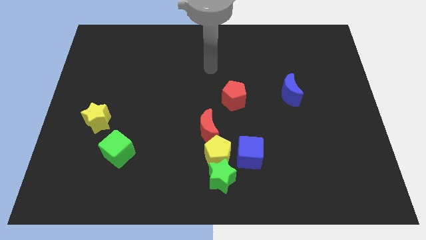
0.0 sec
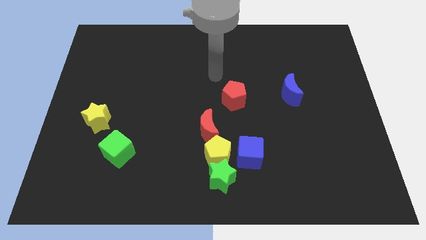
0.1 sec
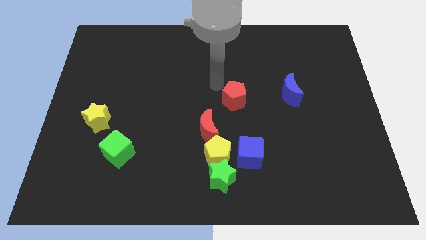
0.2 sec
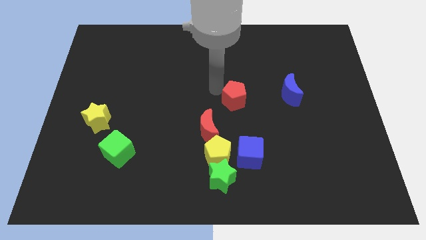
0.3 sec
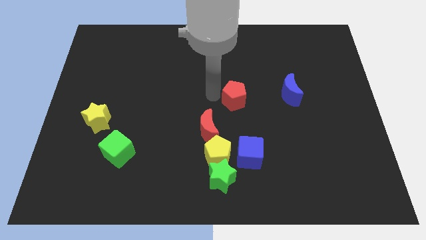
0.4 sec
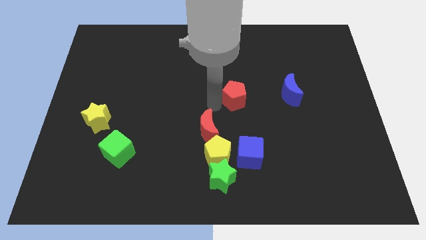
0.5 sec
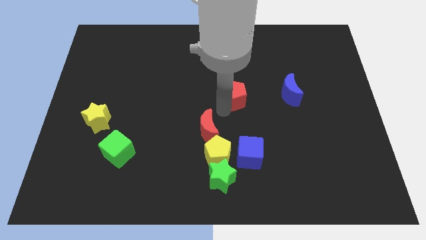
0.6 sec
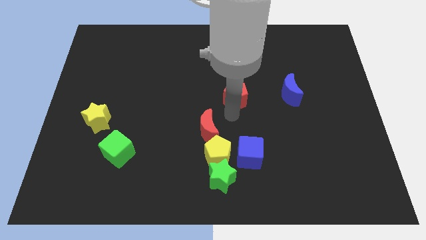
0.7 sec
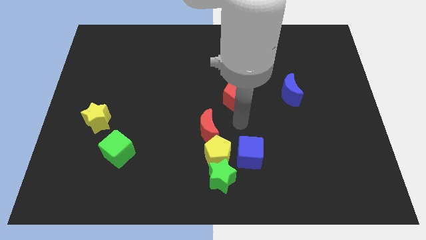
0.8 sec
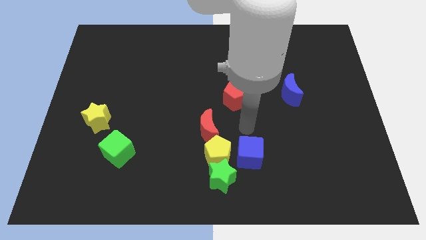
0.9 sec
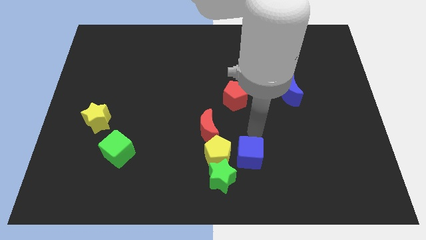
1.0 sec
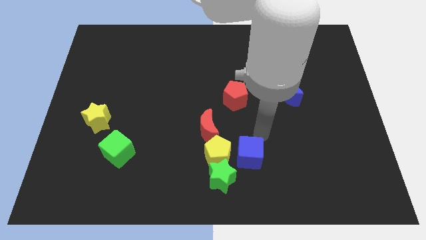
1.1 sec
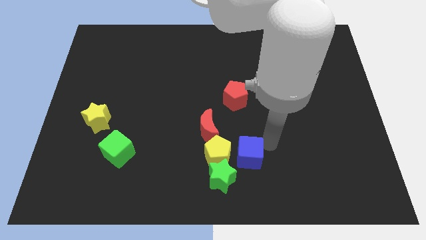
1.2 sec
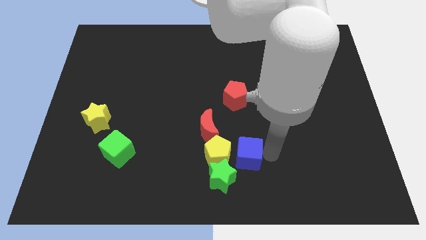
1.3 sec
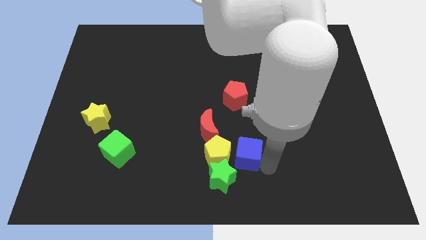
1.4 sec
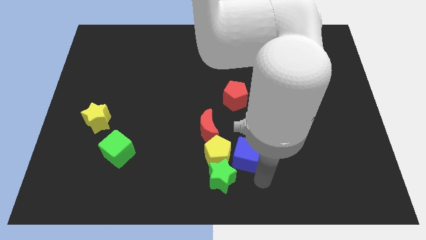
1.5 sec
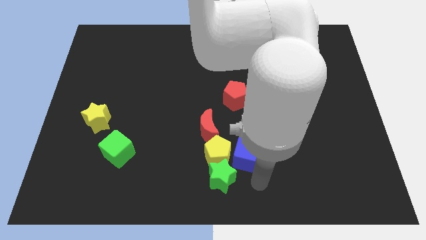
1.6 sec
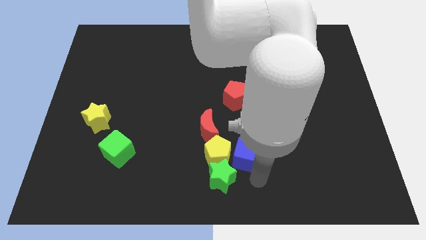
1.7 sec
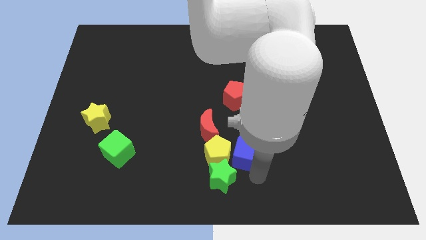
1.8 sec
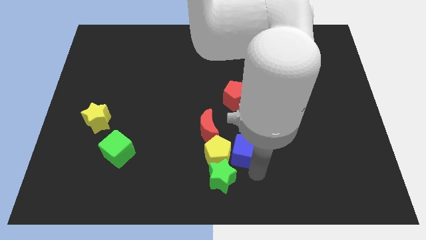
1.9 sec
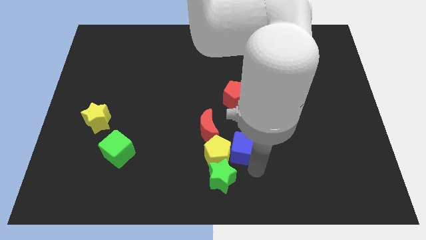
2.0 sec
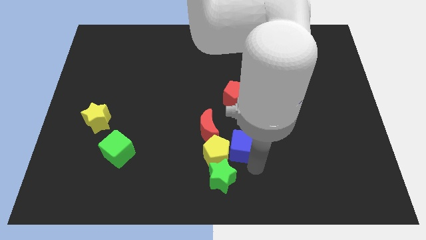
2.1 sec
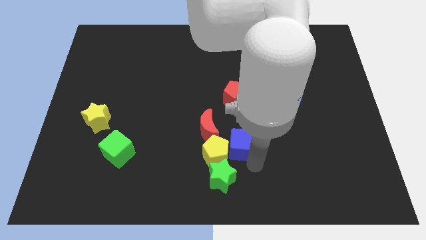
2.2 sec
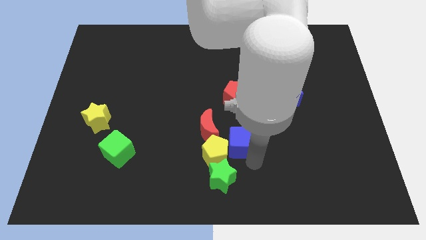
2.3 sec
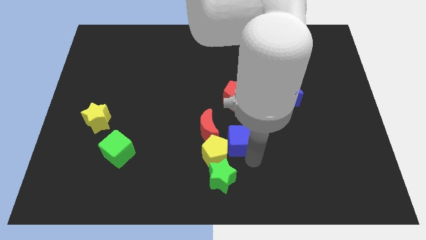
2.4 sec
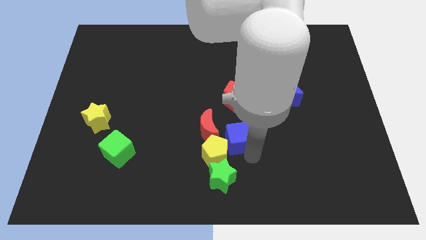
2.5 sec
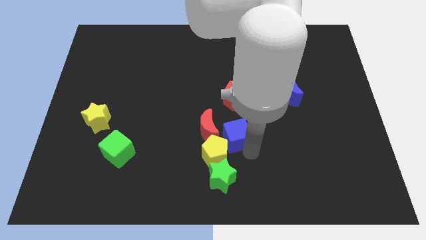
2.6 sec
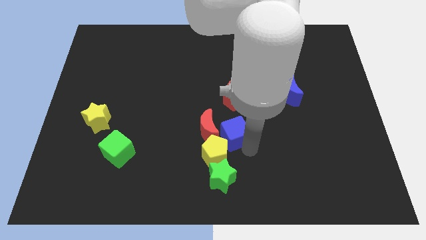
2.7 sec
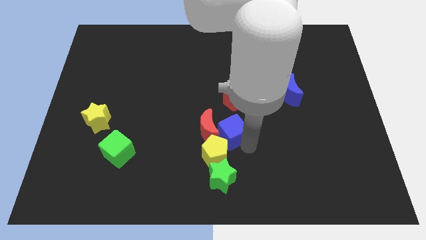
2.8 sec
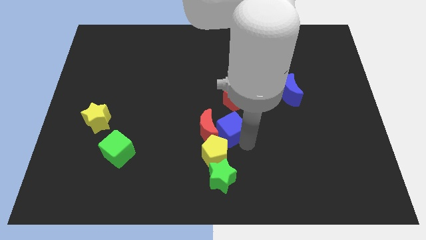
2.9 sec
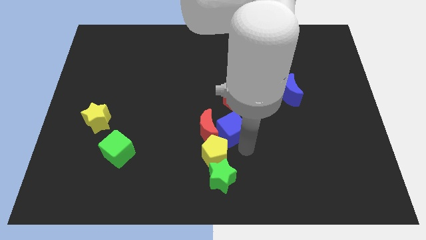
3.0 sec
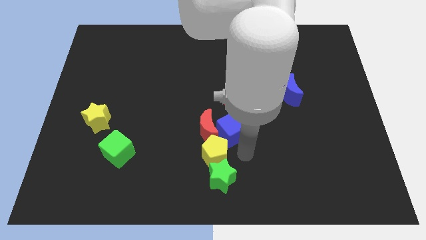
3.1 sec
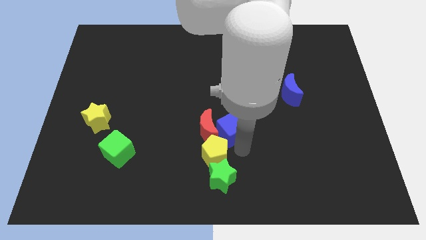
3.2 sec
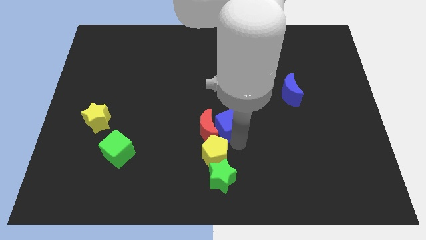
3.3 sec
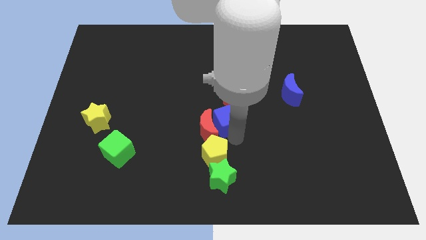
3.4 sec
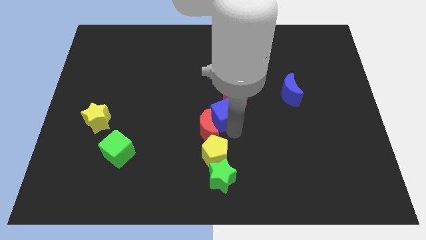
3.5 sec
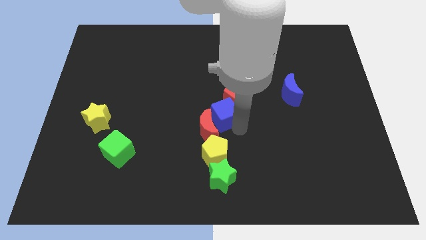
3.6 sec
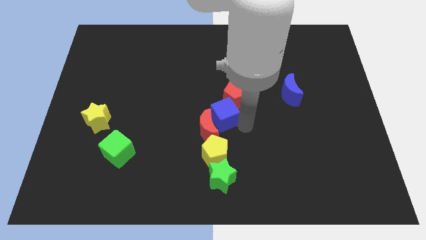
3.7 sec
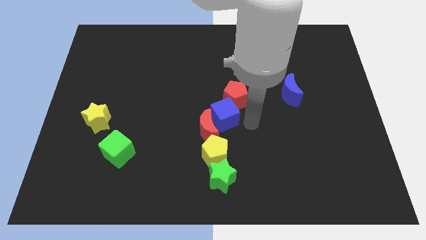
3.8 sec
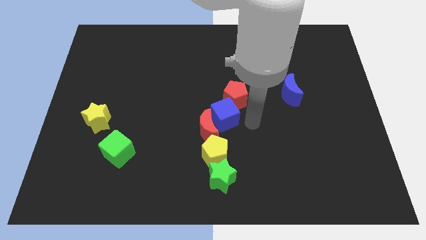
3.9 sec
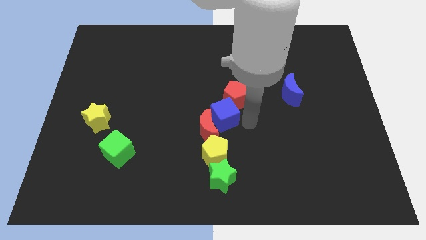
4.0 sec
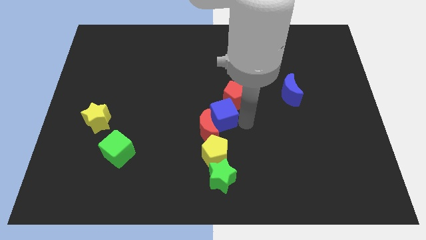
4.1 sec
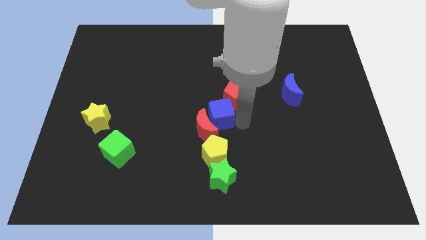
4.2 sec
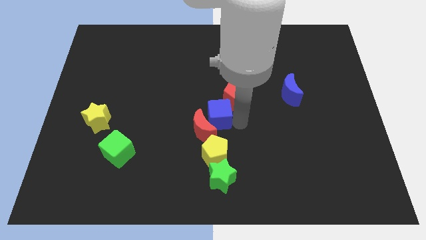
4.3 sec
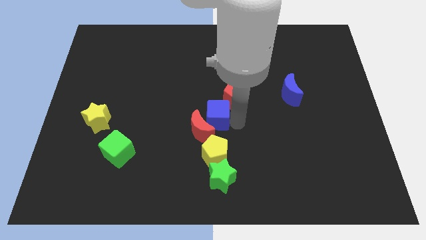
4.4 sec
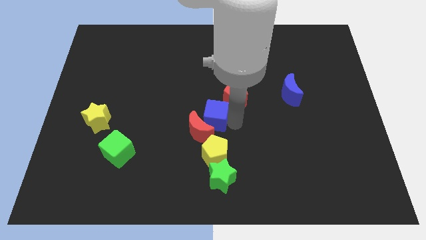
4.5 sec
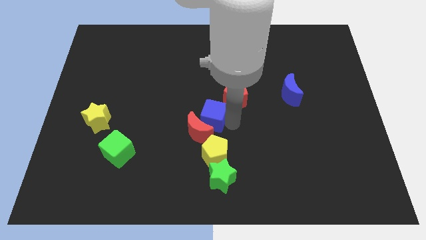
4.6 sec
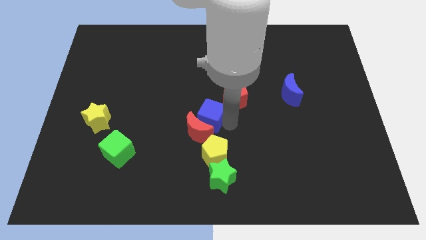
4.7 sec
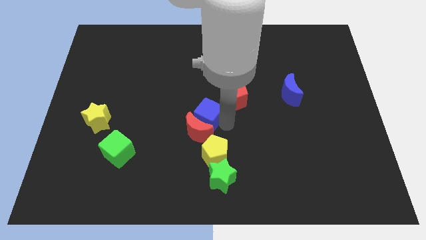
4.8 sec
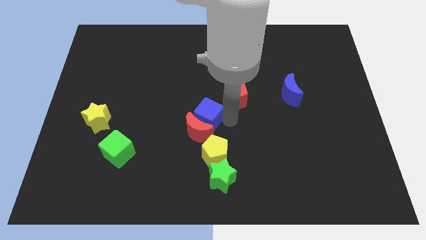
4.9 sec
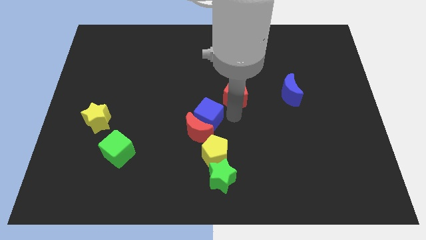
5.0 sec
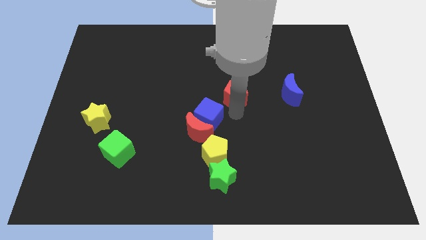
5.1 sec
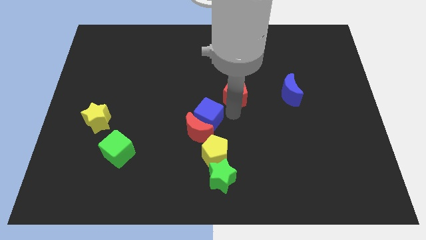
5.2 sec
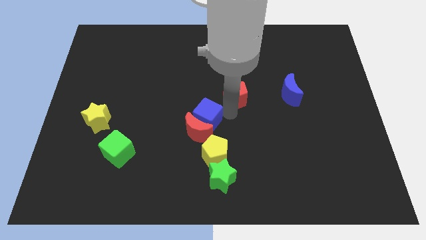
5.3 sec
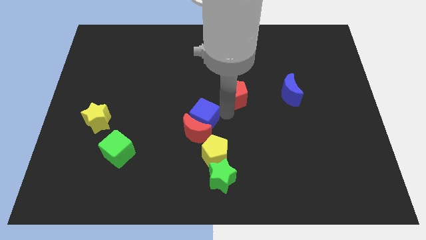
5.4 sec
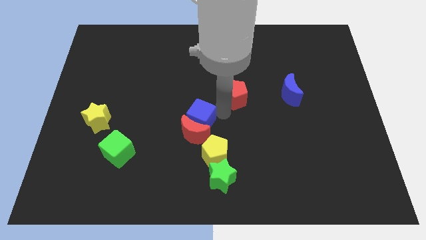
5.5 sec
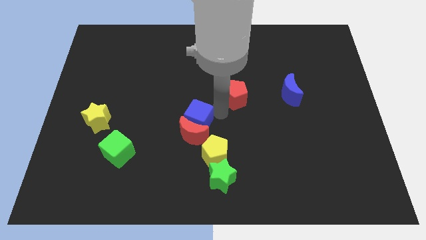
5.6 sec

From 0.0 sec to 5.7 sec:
slightly move the blue cube to the left

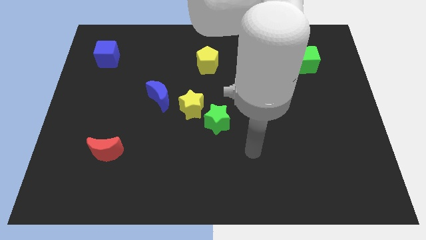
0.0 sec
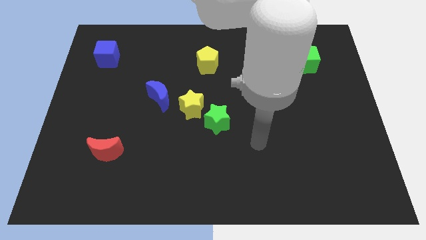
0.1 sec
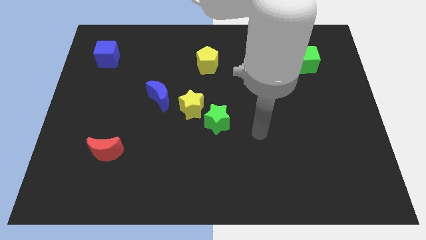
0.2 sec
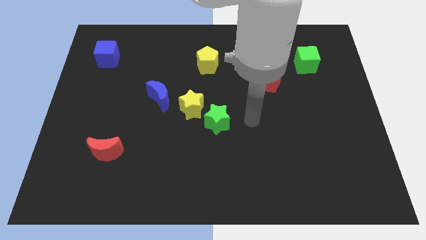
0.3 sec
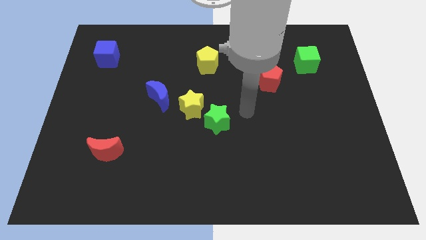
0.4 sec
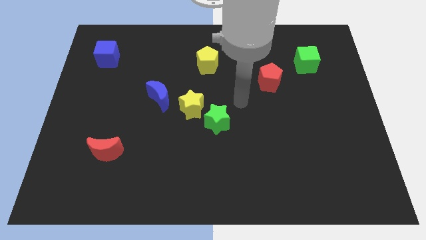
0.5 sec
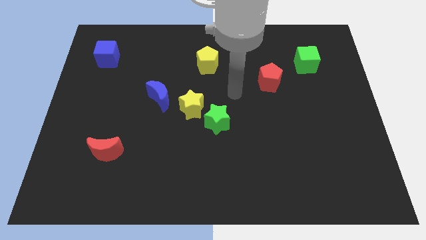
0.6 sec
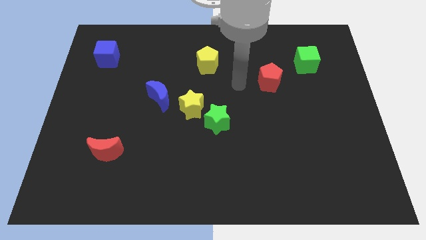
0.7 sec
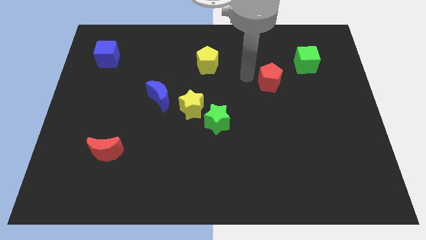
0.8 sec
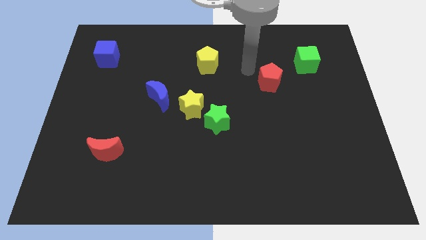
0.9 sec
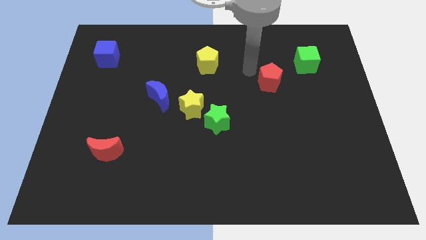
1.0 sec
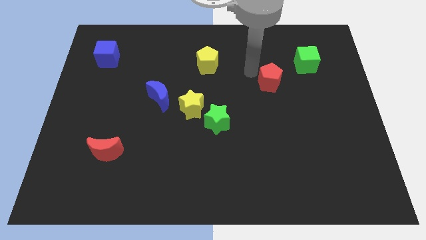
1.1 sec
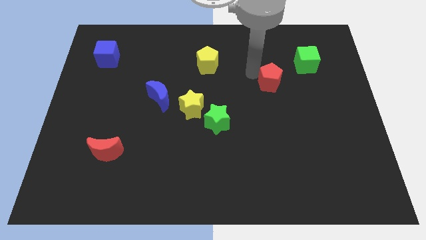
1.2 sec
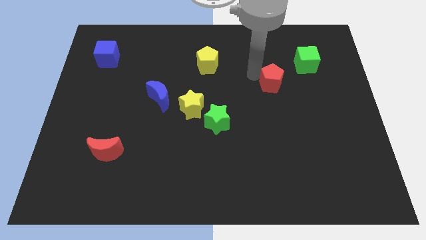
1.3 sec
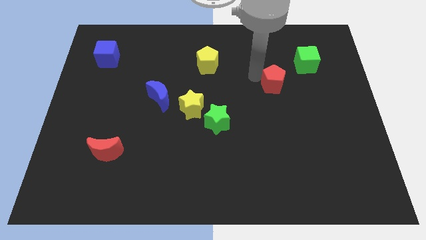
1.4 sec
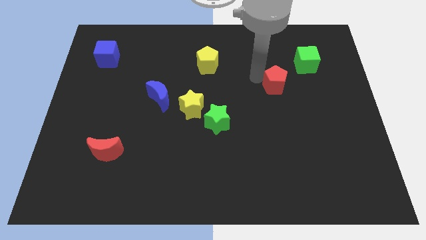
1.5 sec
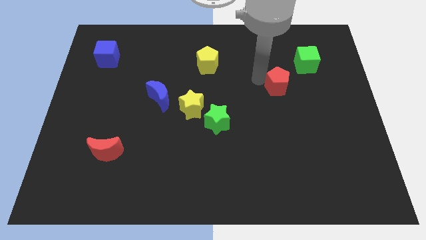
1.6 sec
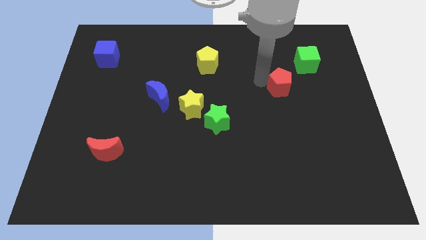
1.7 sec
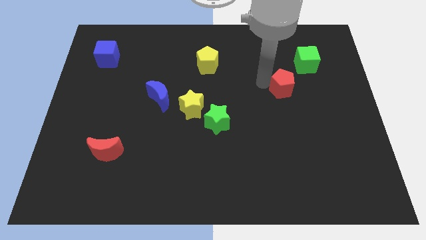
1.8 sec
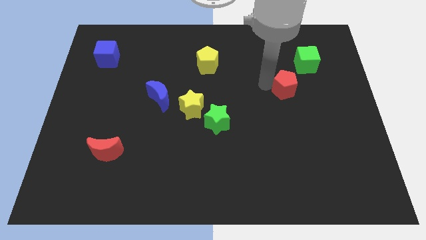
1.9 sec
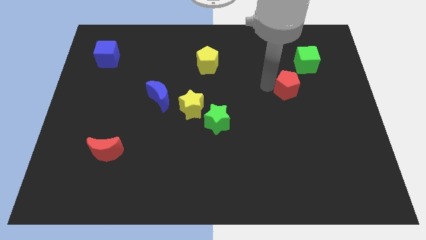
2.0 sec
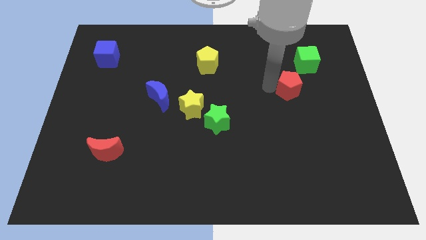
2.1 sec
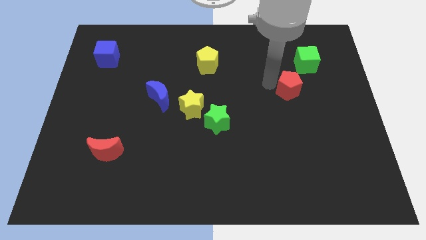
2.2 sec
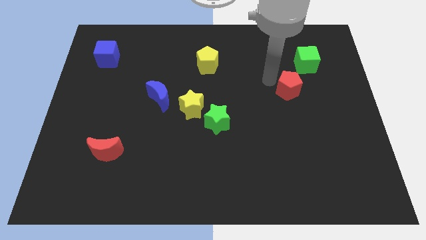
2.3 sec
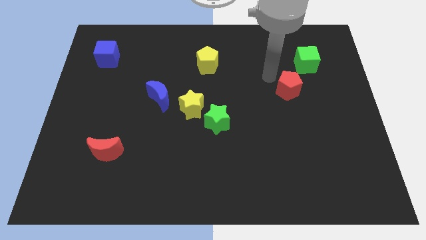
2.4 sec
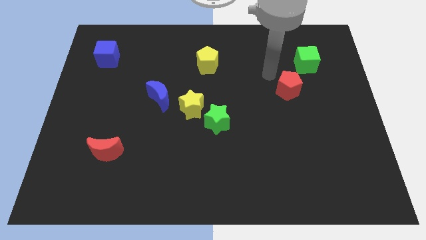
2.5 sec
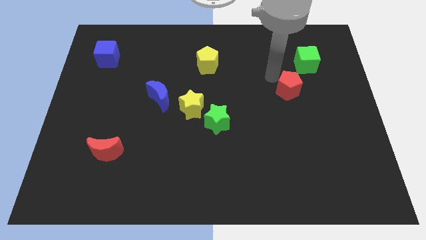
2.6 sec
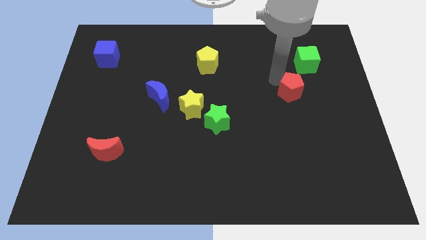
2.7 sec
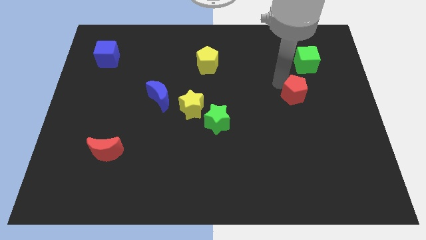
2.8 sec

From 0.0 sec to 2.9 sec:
slide the red pentagon downwards and then right somewhat

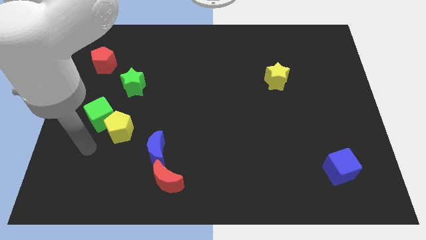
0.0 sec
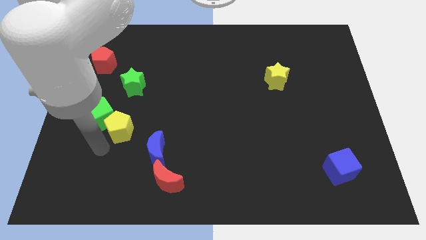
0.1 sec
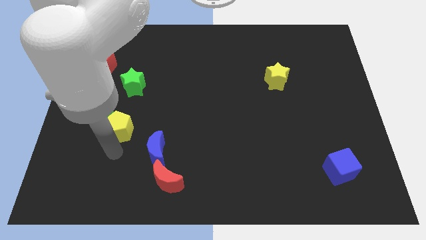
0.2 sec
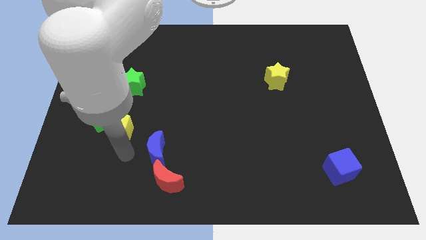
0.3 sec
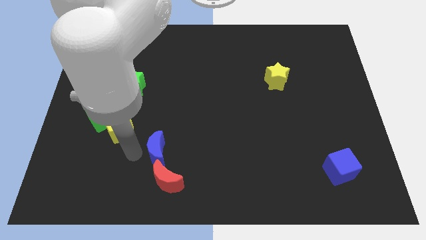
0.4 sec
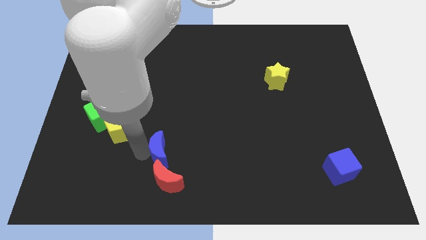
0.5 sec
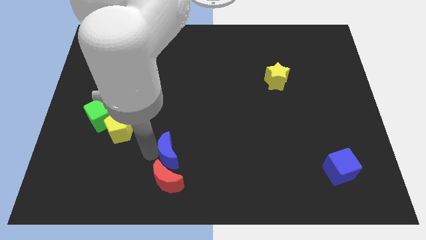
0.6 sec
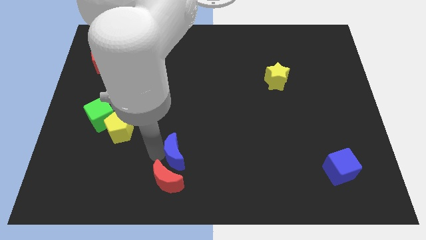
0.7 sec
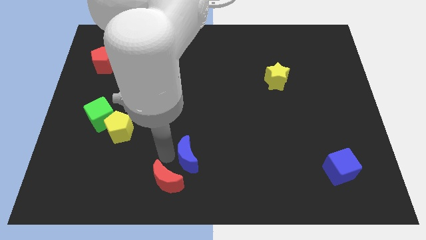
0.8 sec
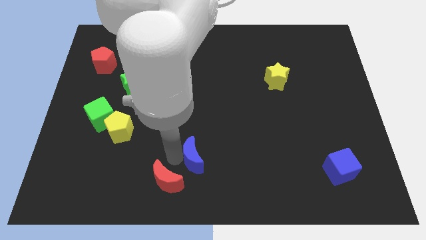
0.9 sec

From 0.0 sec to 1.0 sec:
slightly slide the blue moon right
